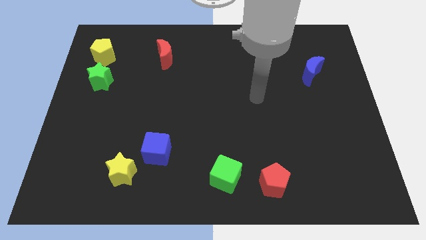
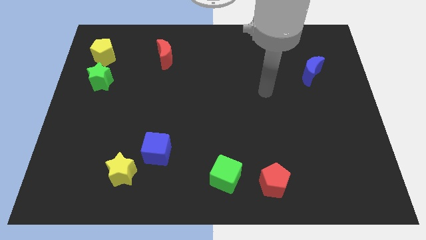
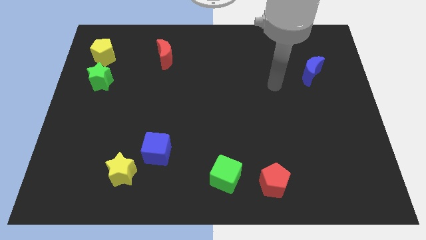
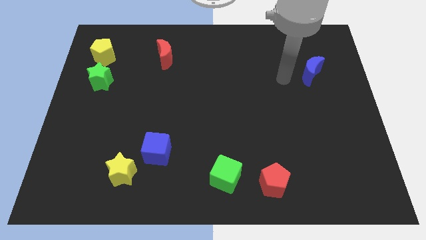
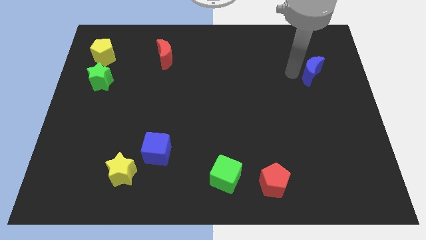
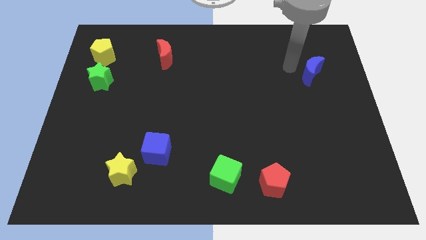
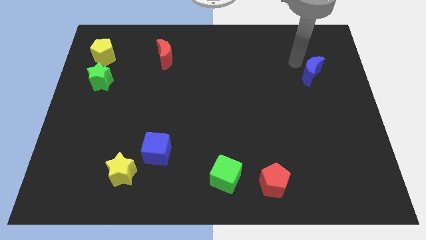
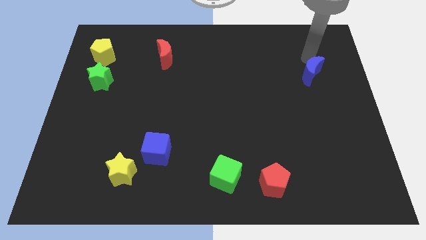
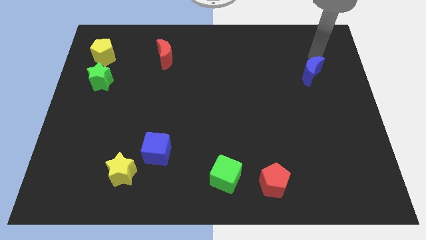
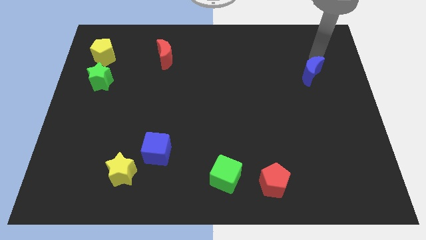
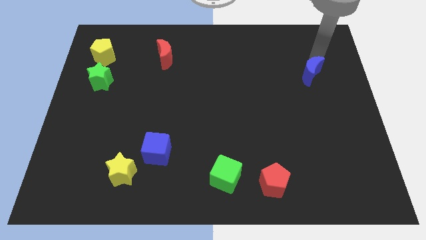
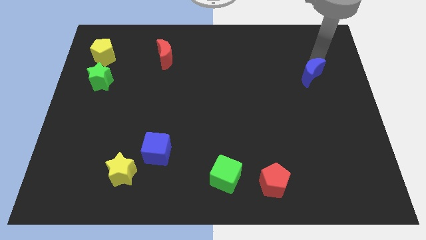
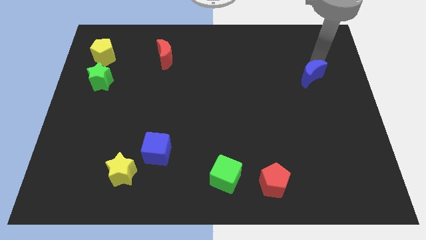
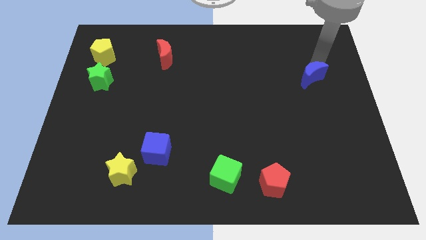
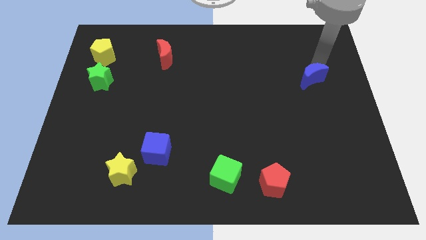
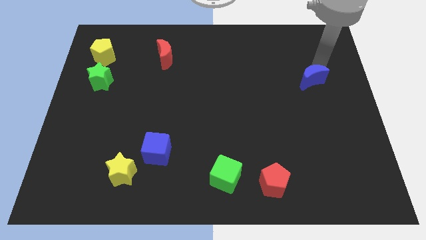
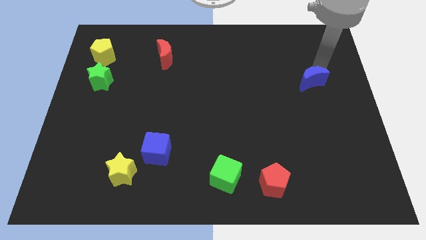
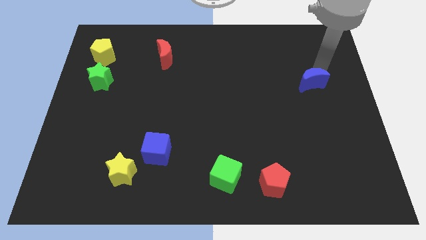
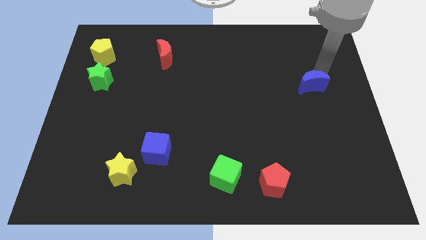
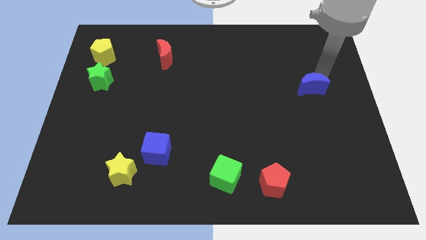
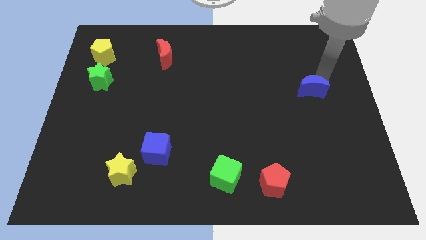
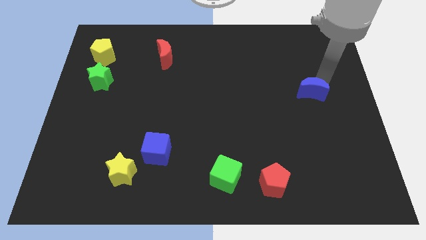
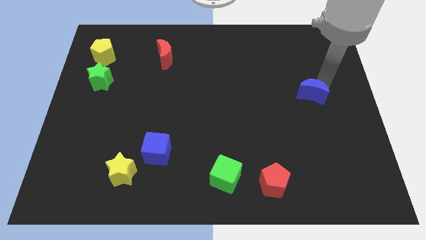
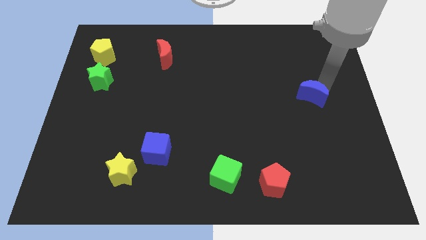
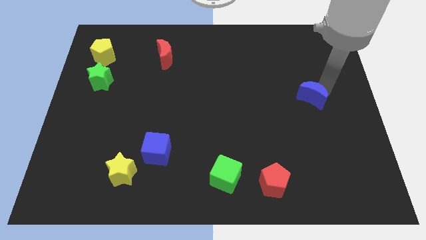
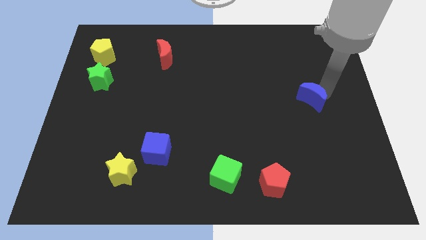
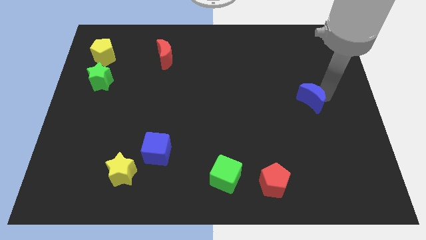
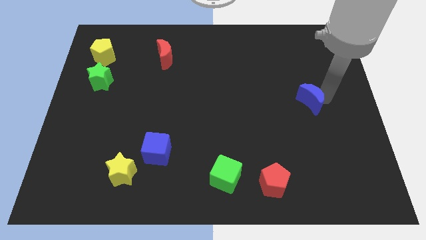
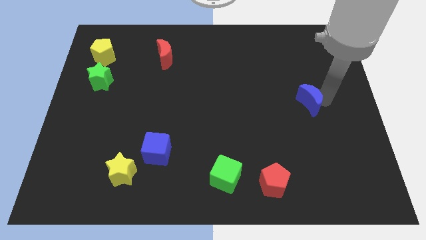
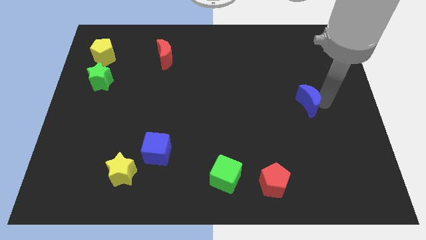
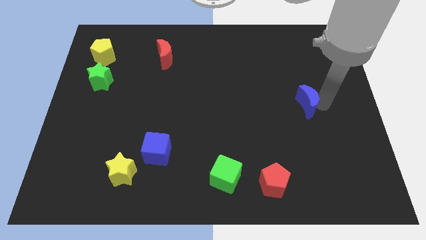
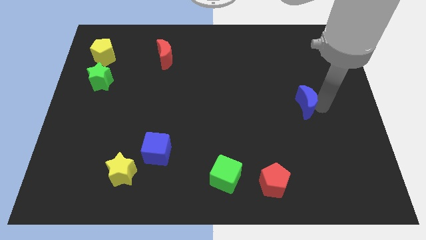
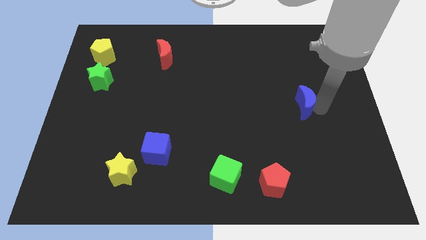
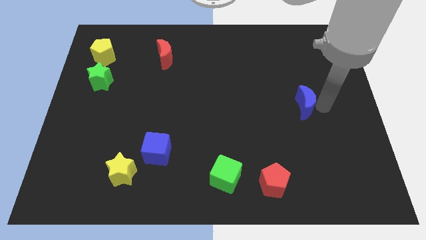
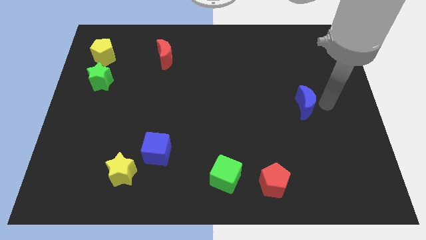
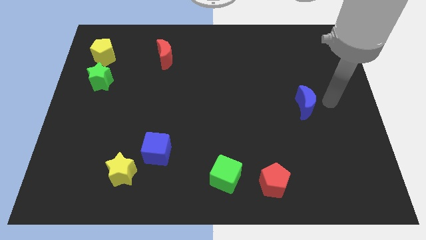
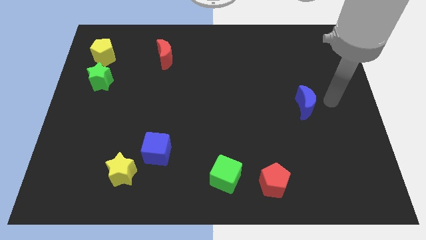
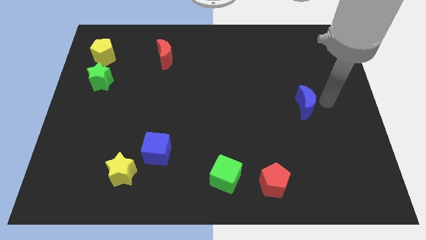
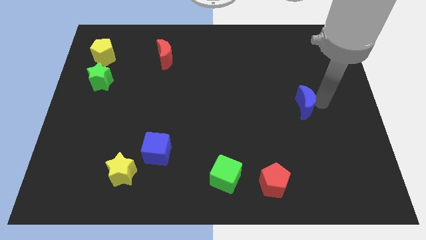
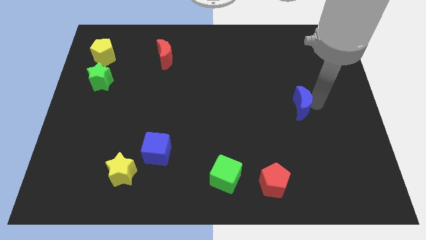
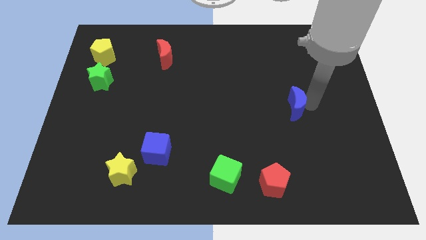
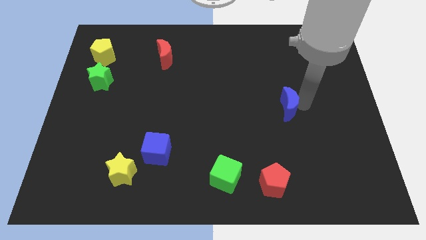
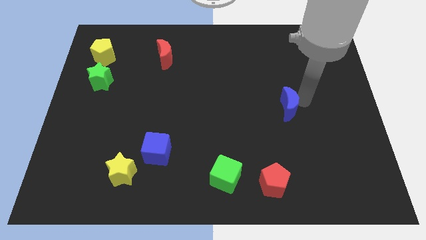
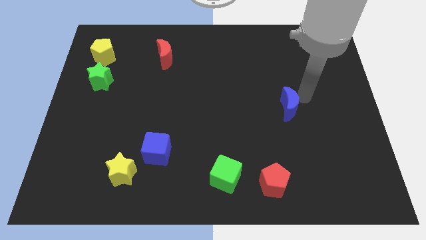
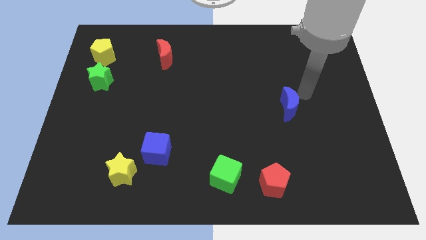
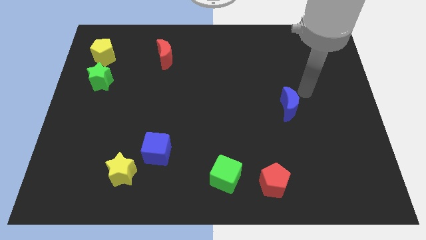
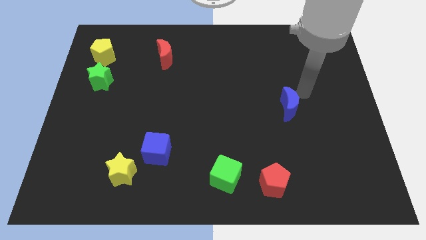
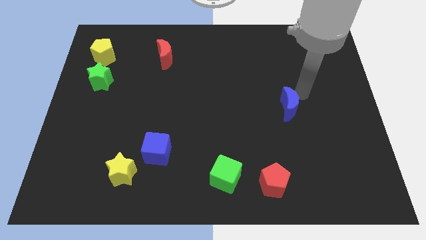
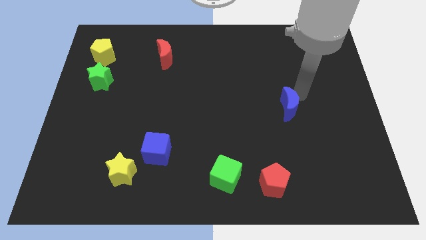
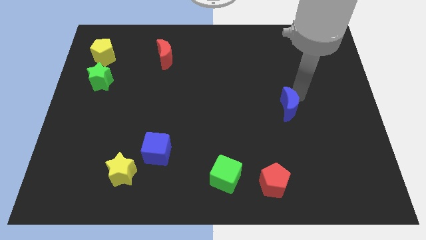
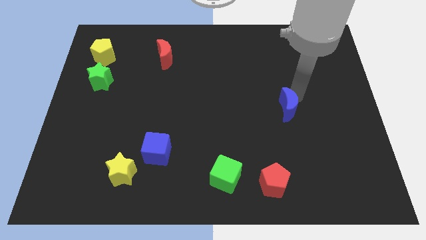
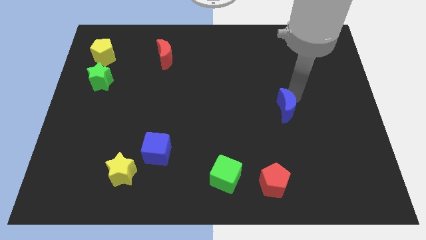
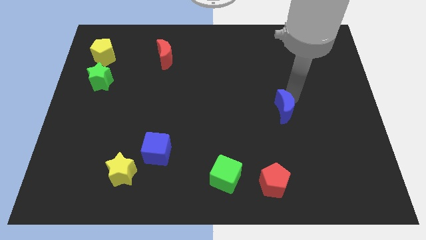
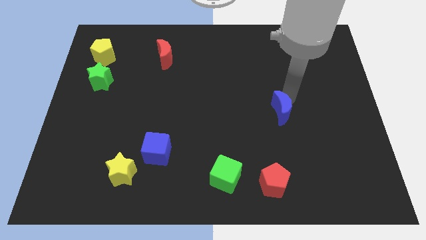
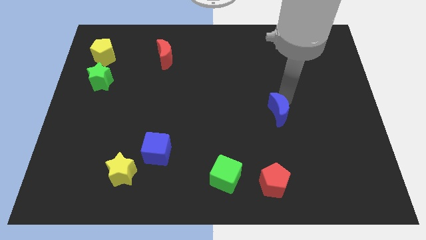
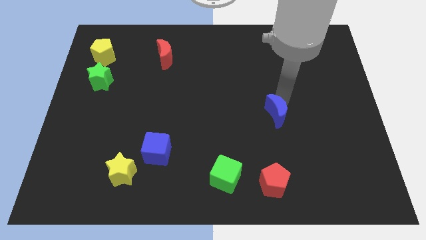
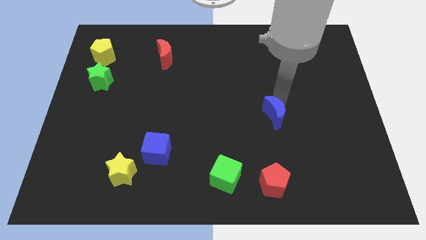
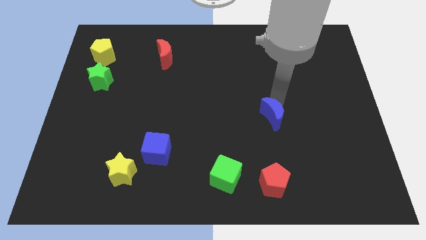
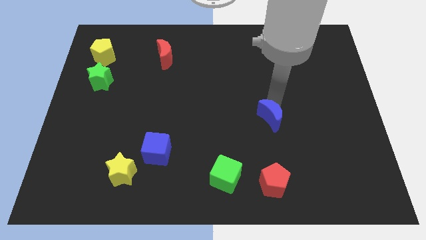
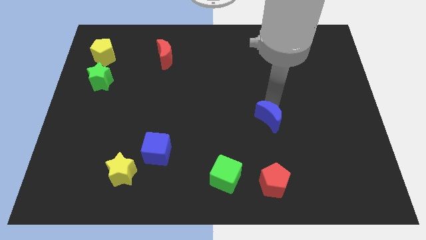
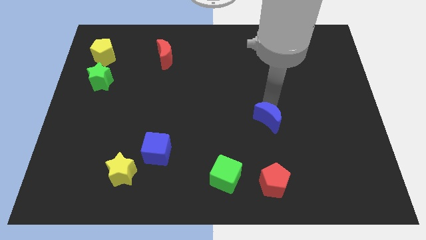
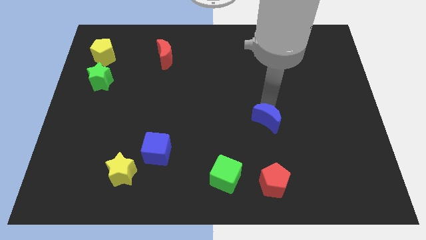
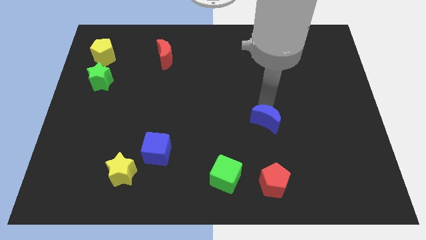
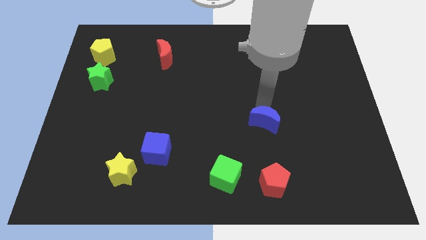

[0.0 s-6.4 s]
slide the blue moon down and to the left

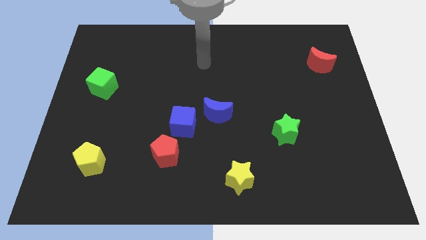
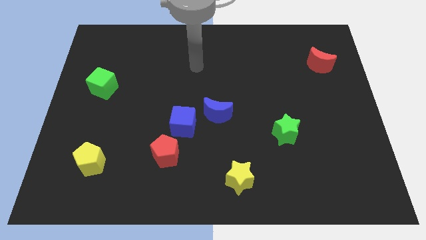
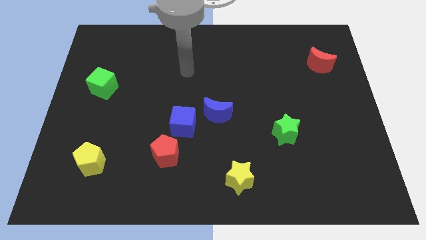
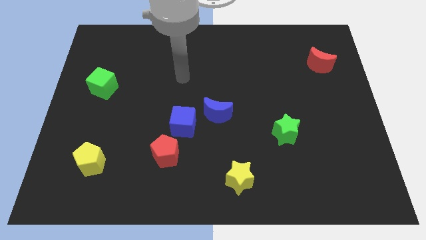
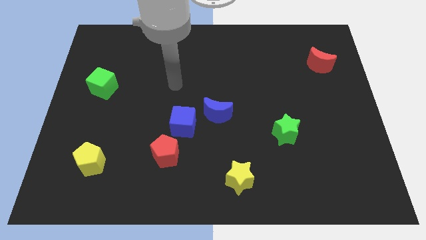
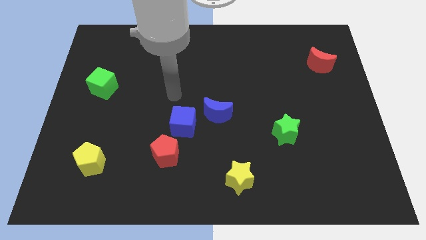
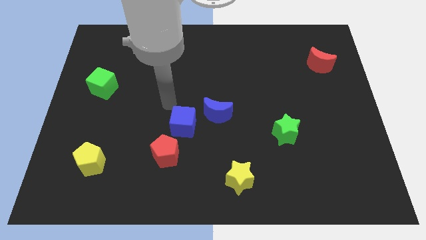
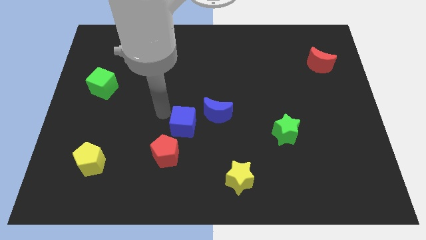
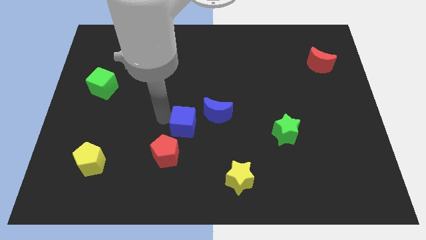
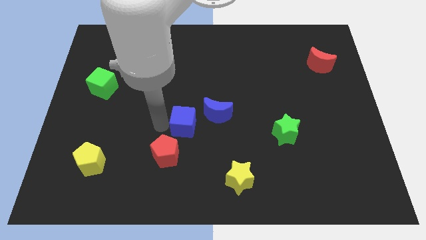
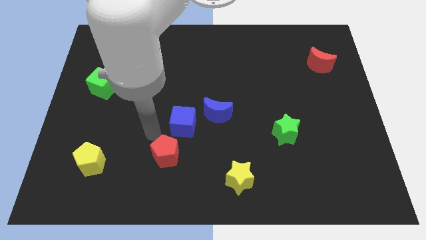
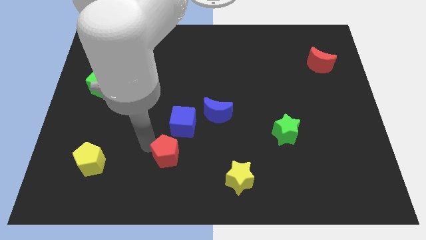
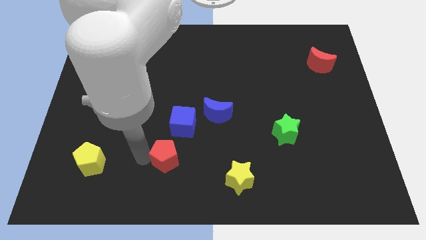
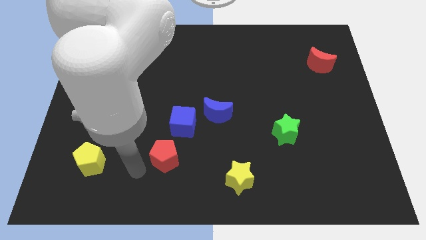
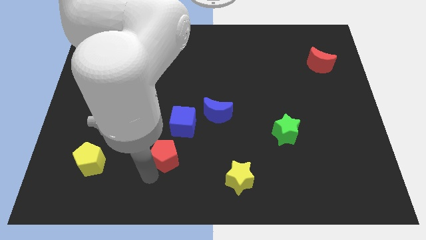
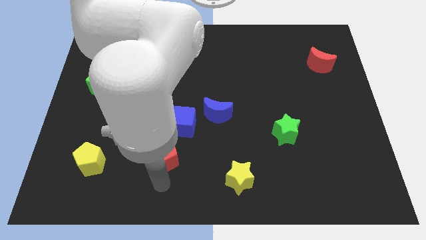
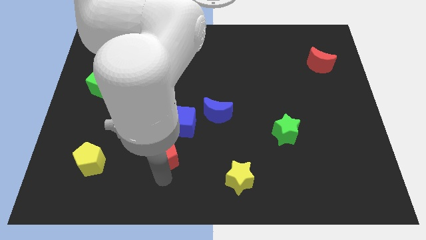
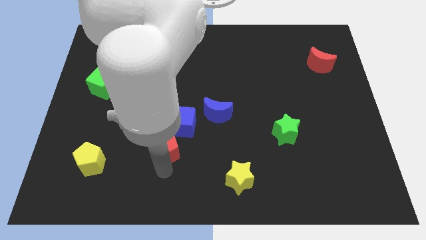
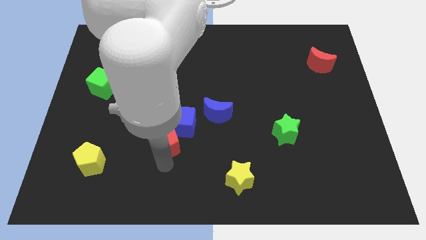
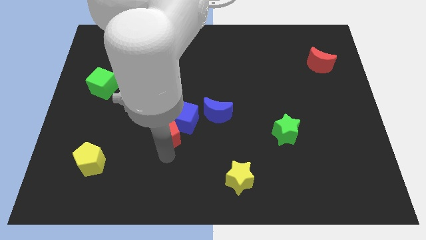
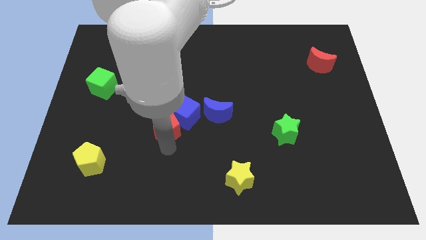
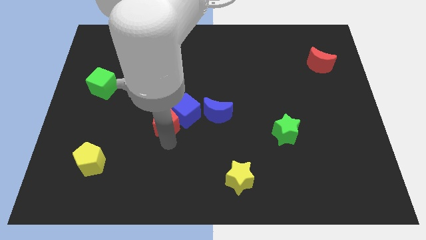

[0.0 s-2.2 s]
slightly slide the red pentagon up
